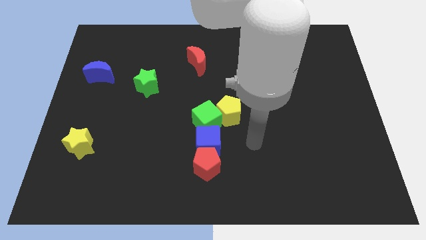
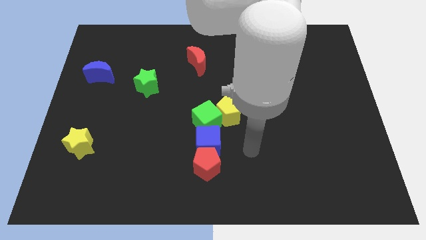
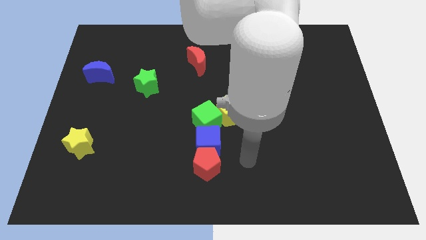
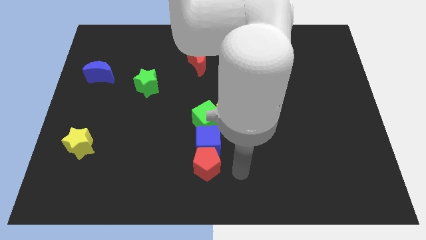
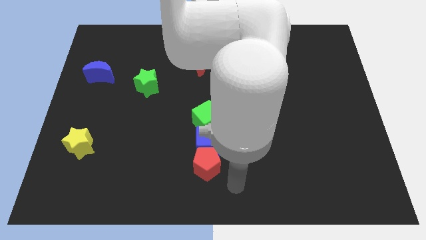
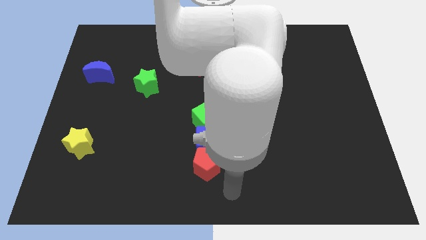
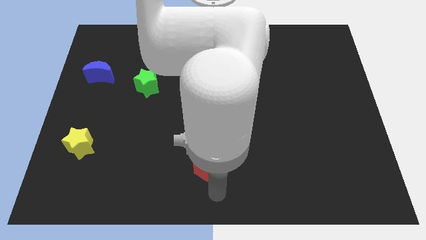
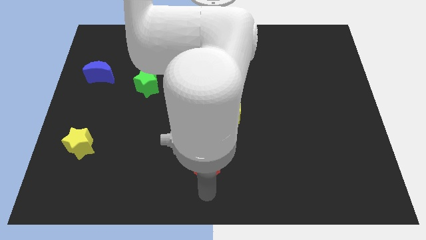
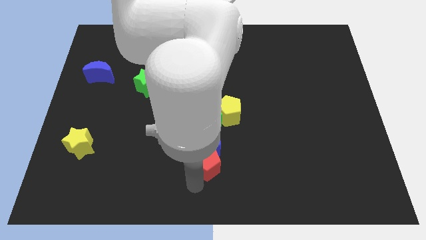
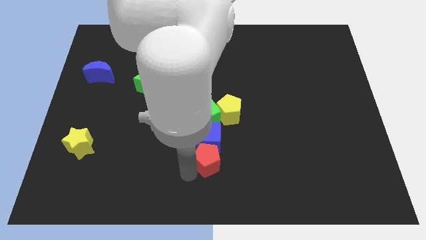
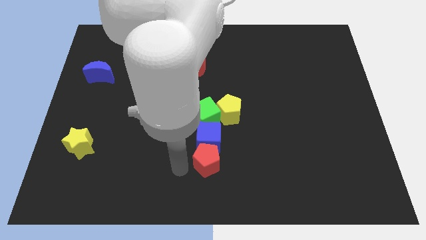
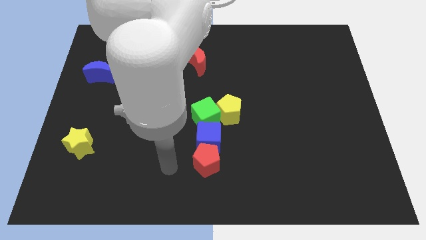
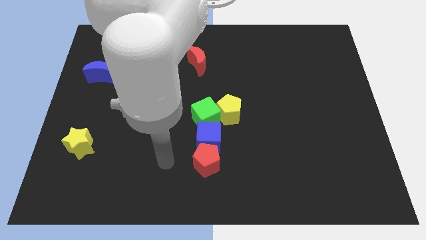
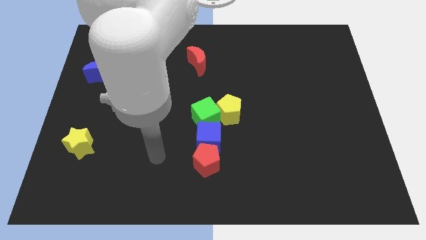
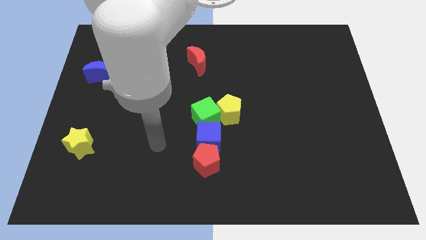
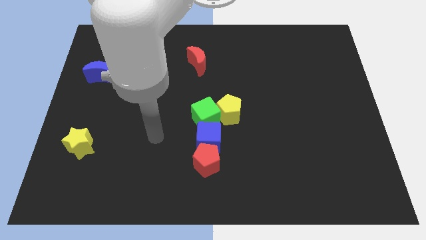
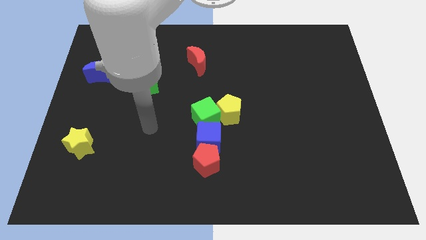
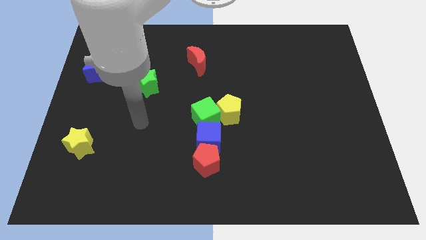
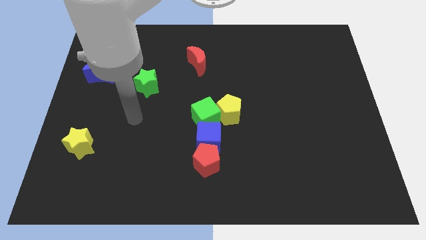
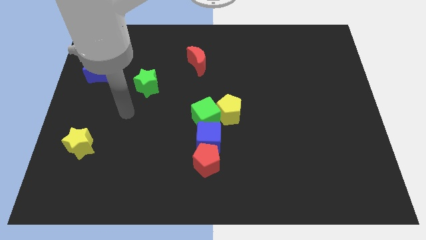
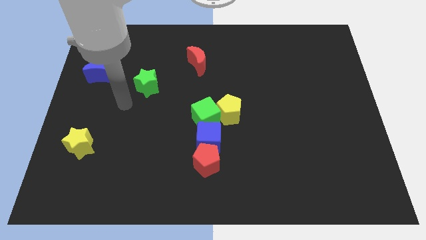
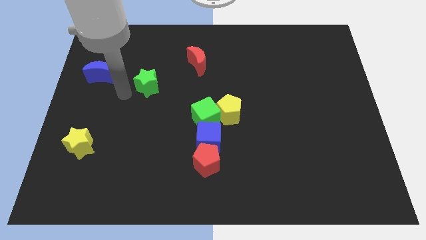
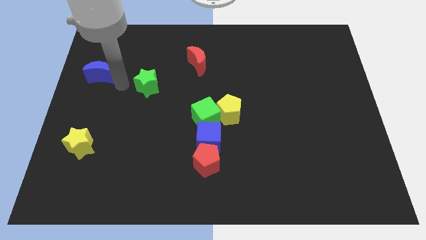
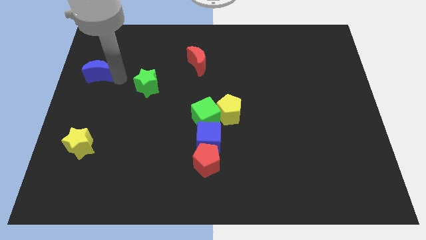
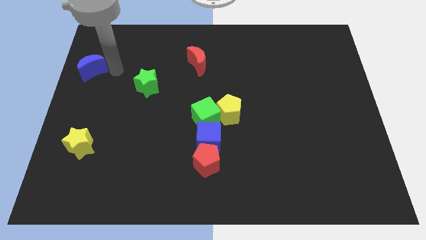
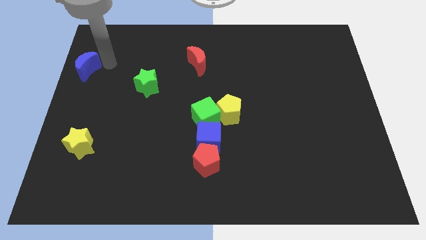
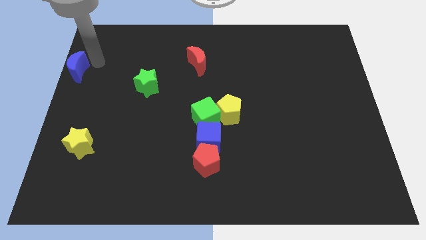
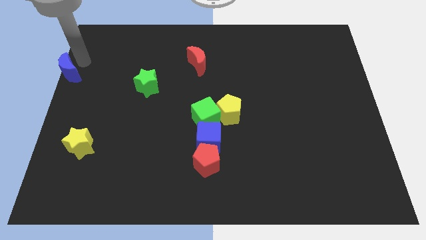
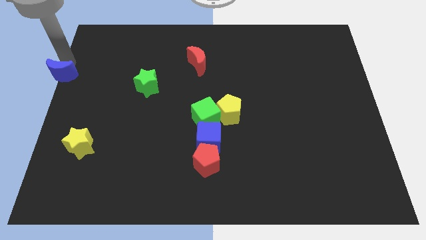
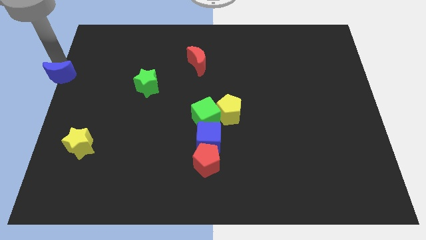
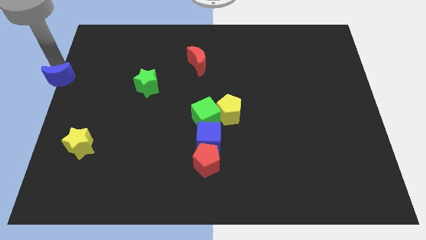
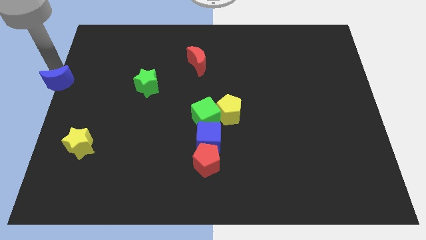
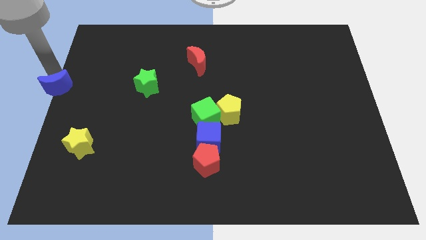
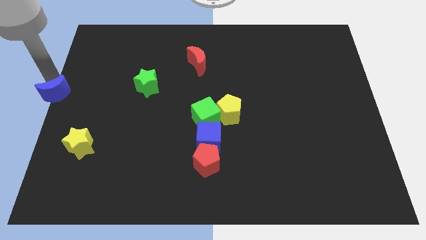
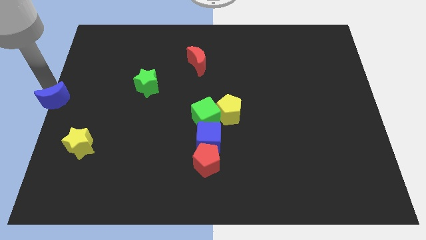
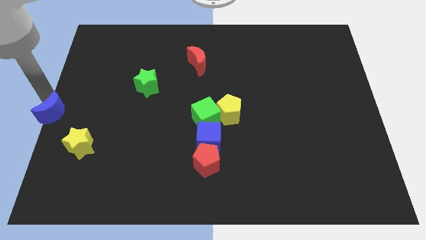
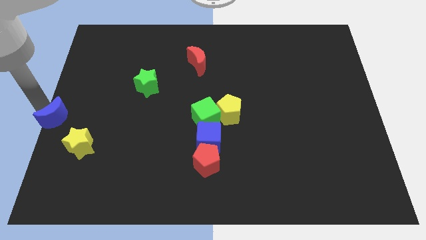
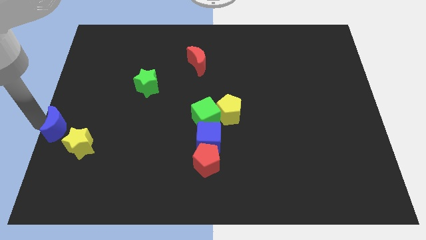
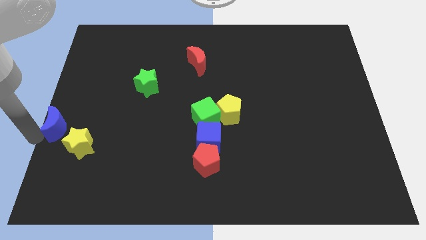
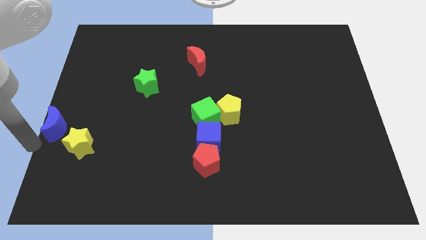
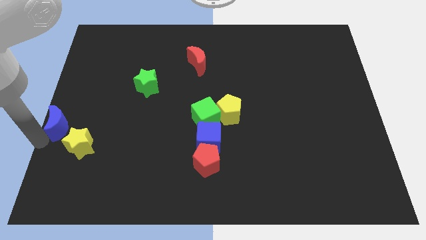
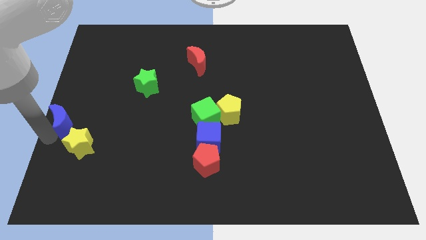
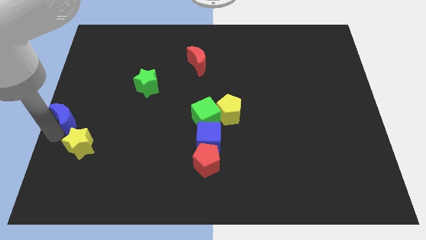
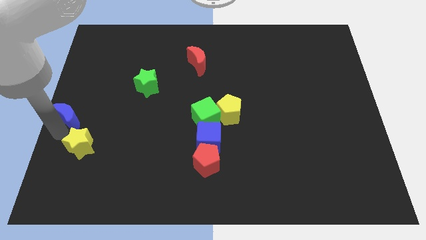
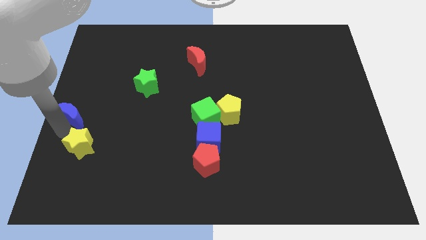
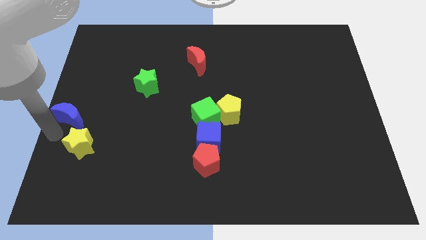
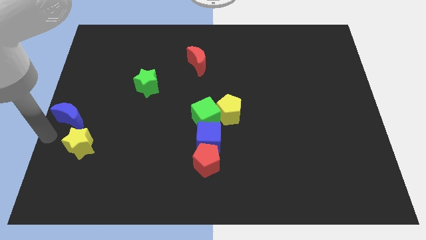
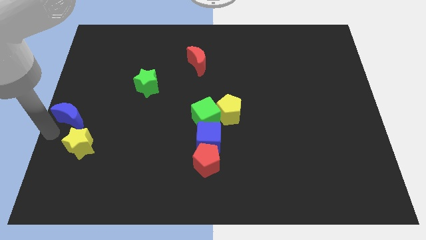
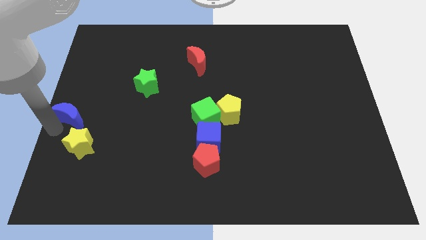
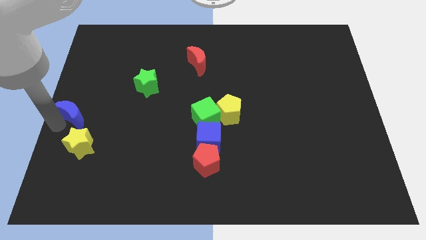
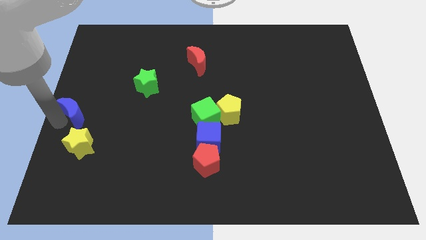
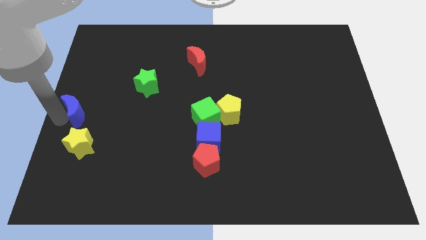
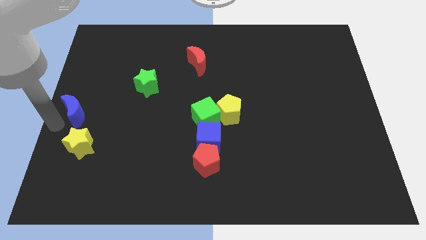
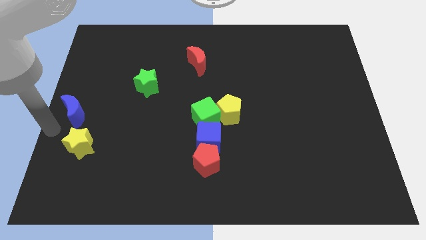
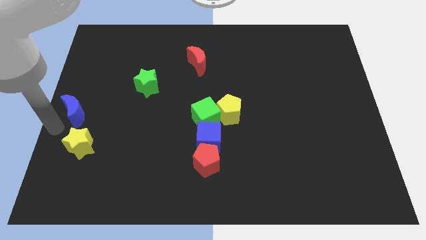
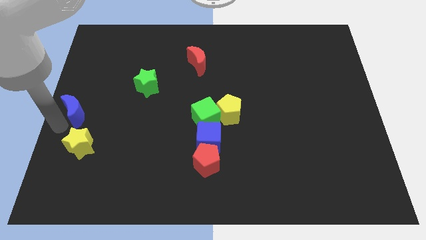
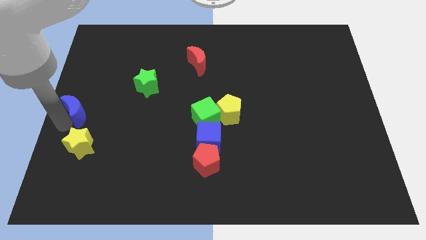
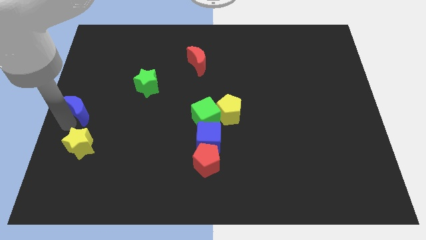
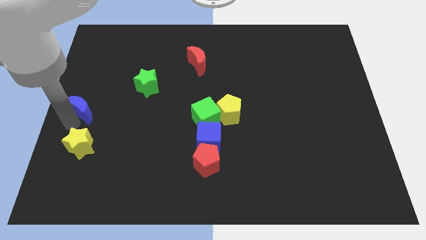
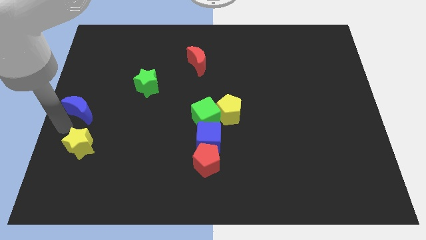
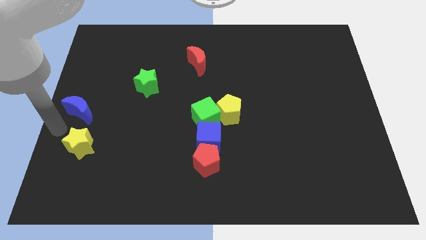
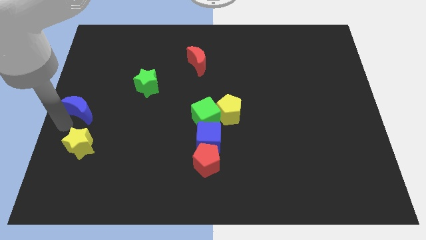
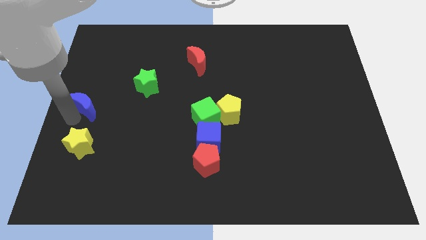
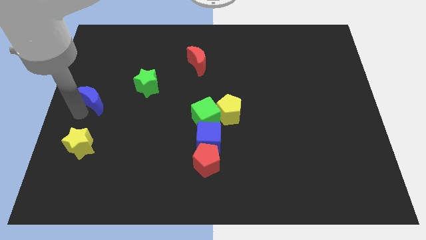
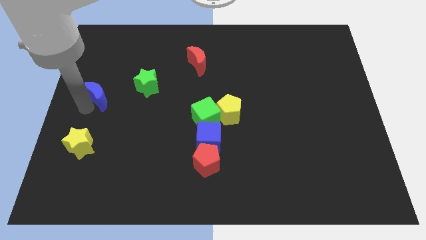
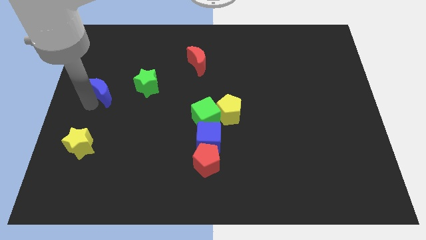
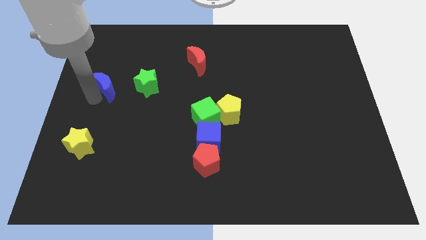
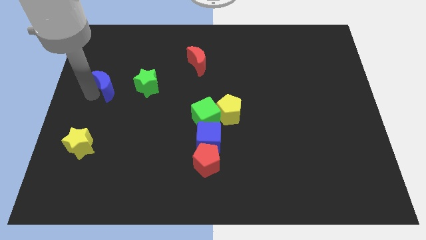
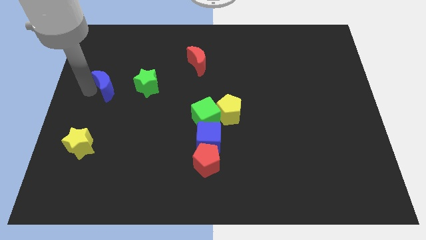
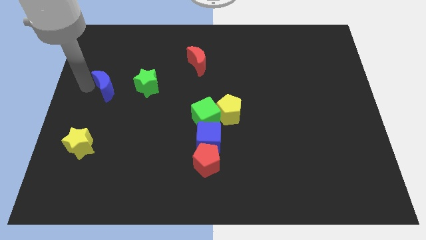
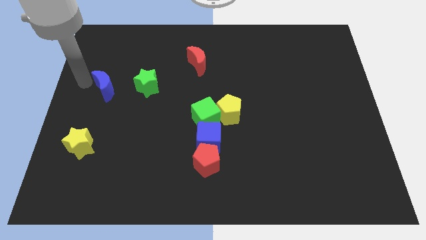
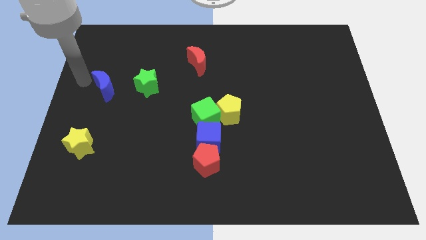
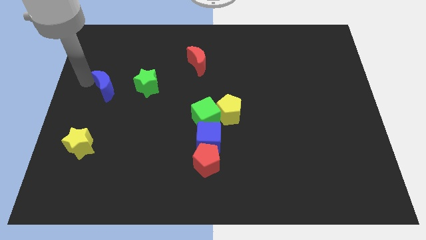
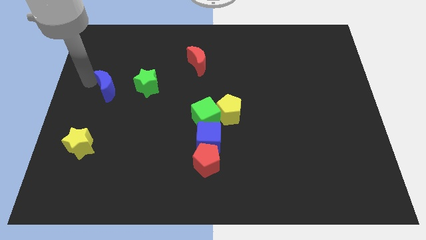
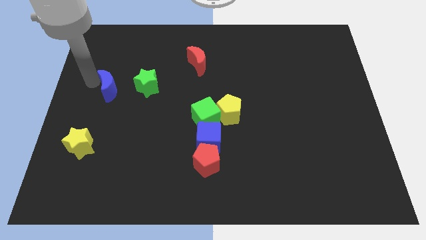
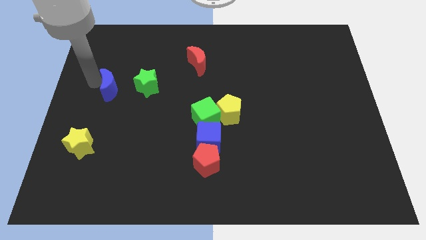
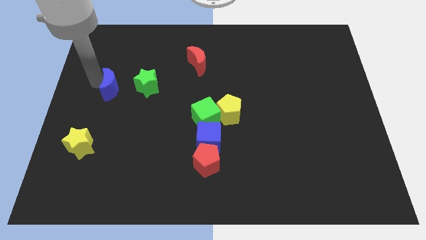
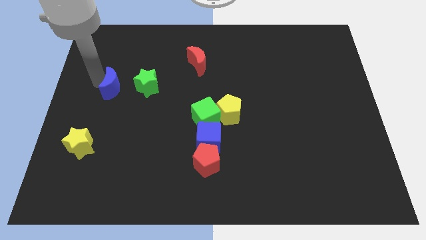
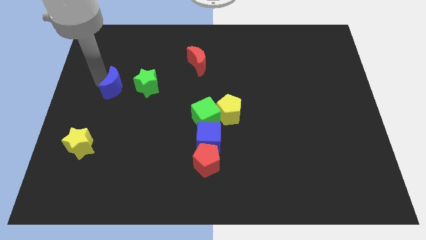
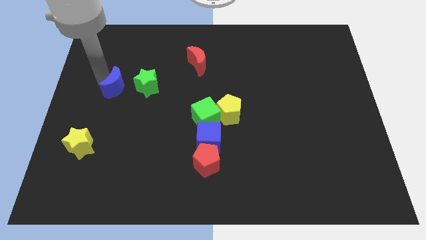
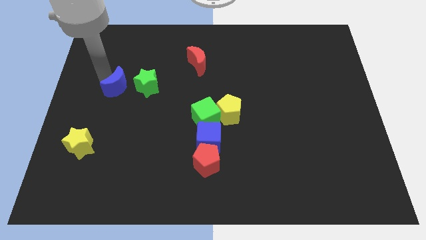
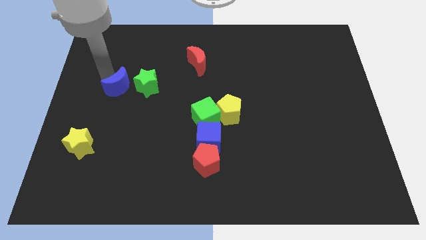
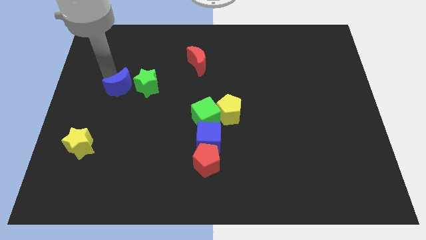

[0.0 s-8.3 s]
push the blue moon downwards and then right a bit

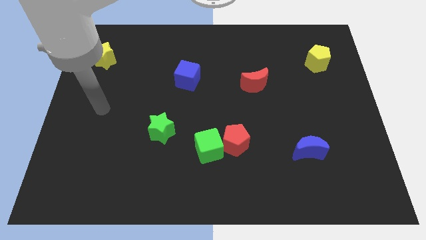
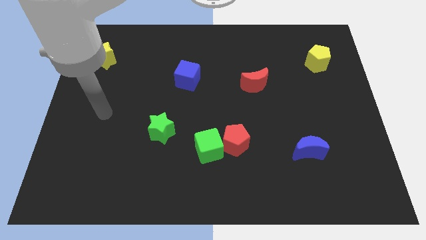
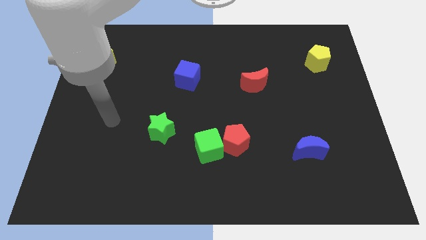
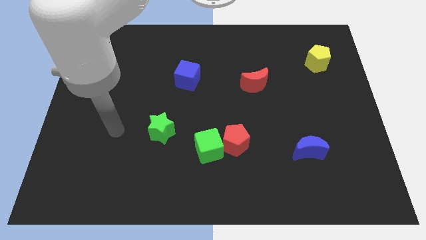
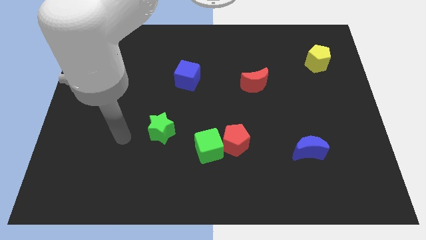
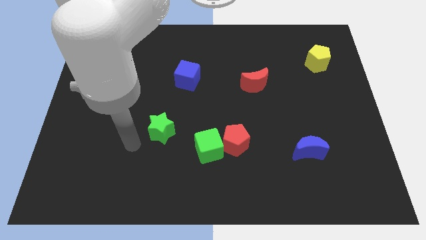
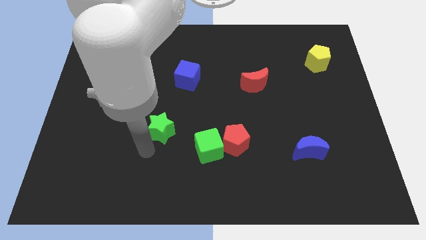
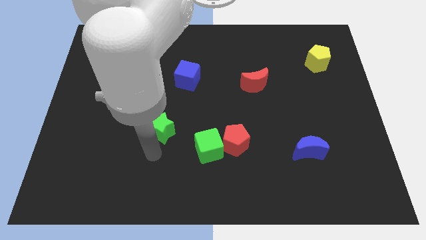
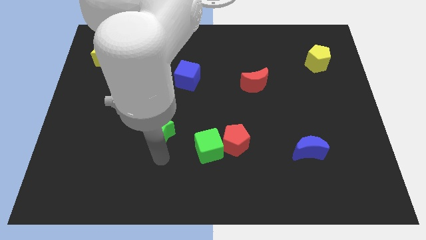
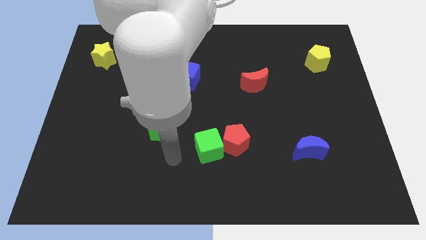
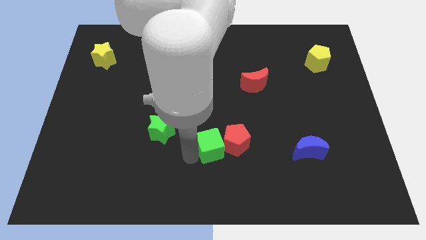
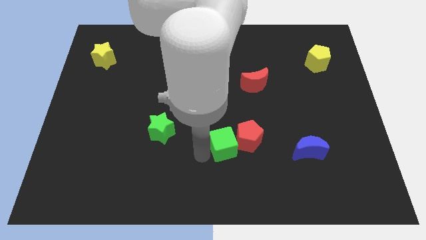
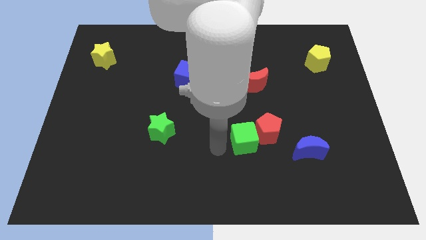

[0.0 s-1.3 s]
slide the red pentagon a little right
